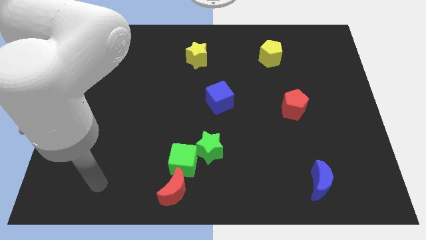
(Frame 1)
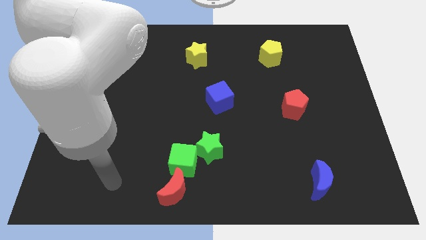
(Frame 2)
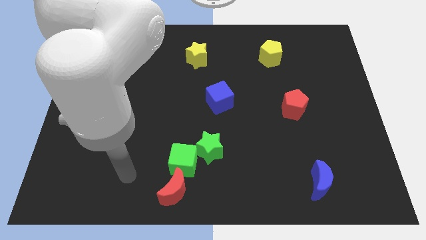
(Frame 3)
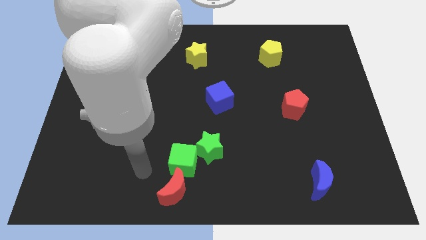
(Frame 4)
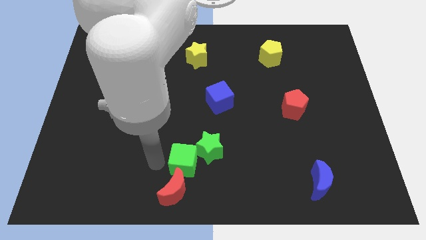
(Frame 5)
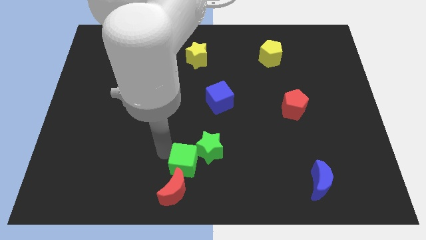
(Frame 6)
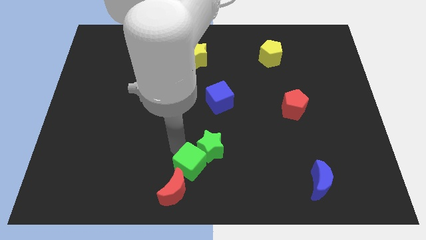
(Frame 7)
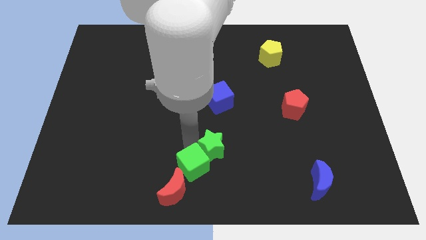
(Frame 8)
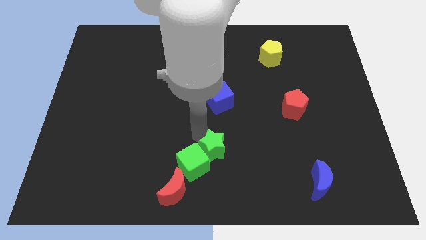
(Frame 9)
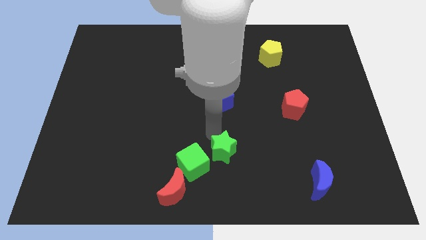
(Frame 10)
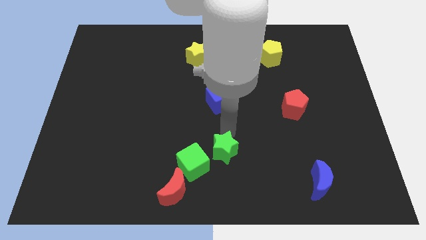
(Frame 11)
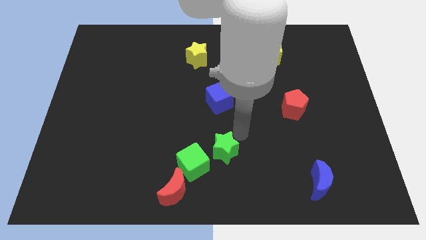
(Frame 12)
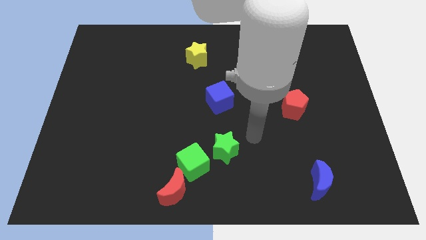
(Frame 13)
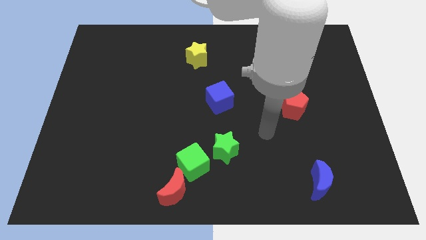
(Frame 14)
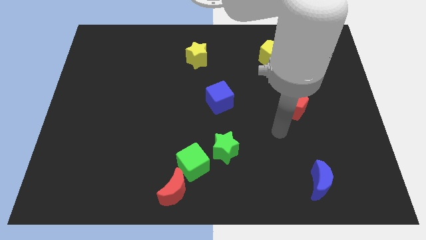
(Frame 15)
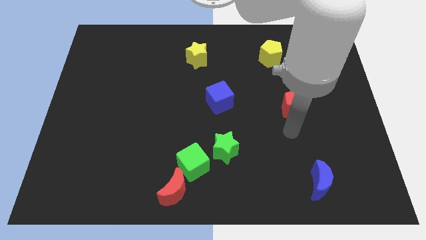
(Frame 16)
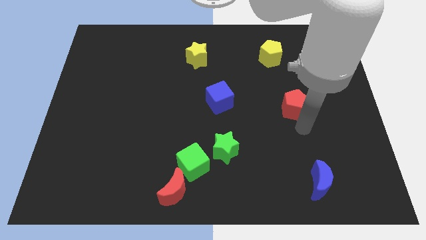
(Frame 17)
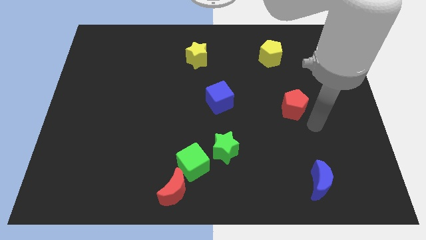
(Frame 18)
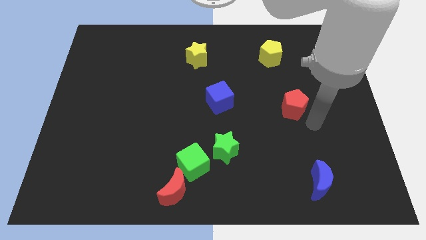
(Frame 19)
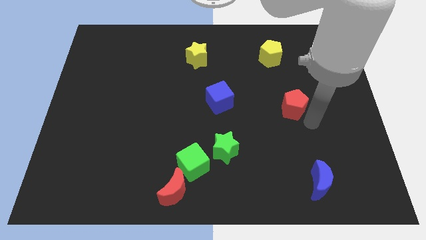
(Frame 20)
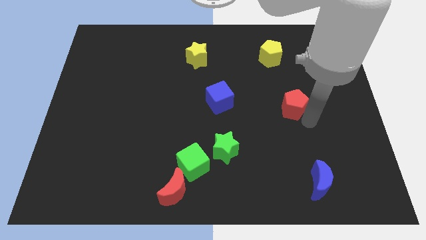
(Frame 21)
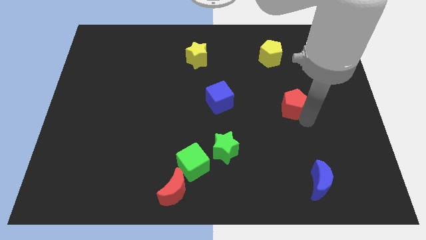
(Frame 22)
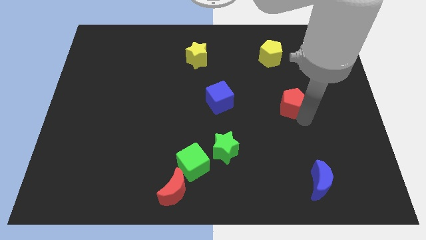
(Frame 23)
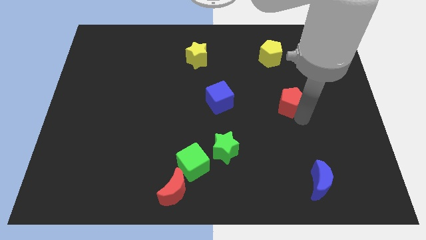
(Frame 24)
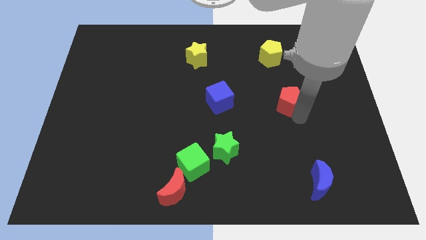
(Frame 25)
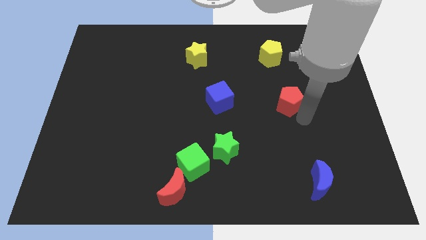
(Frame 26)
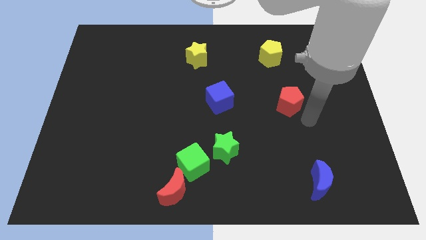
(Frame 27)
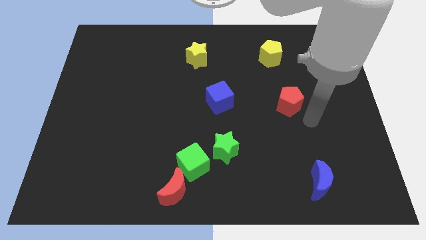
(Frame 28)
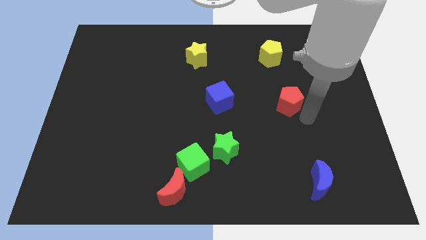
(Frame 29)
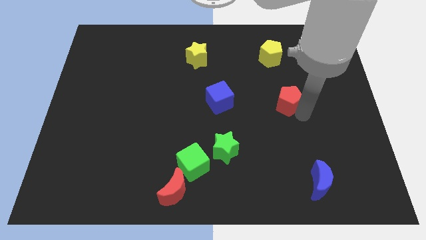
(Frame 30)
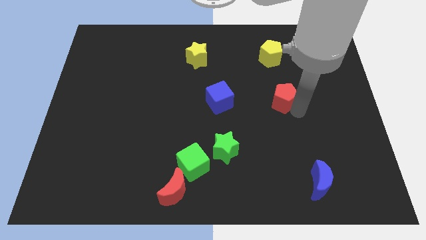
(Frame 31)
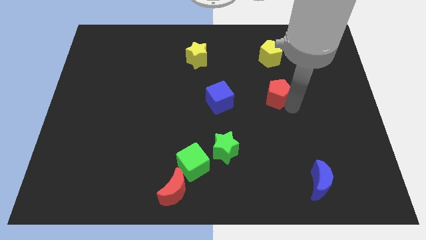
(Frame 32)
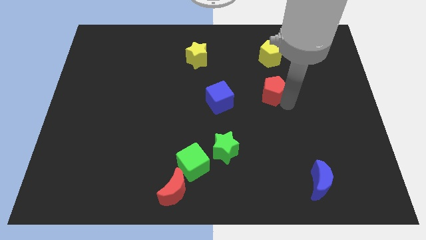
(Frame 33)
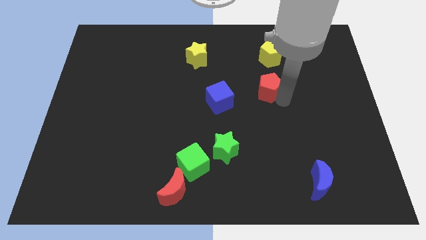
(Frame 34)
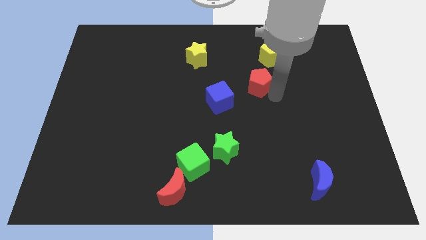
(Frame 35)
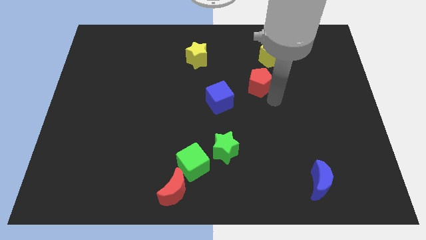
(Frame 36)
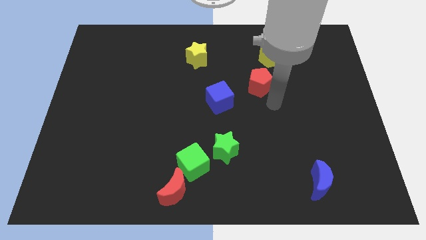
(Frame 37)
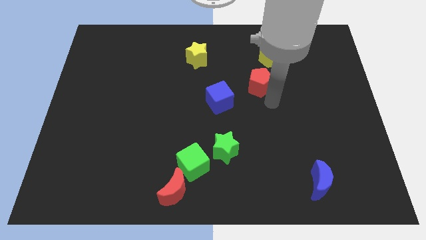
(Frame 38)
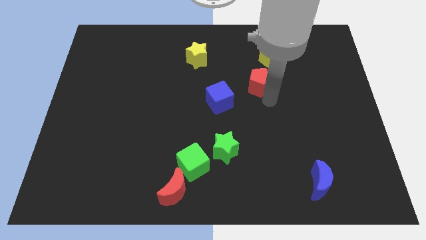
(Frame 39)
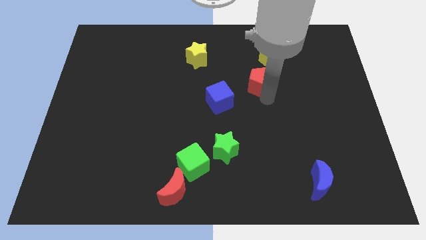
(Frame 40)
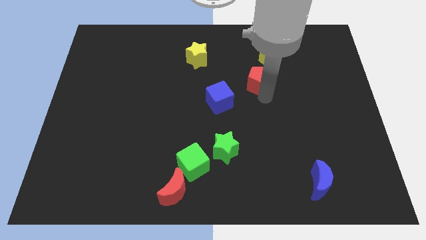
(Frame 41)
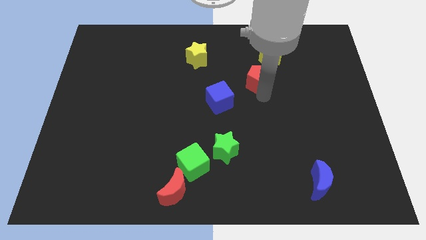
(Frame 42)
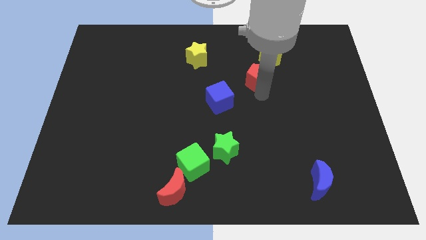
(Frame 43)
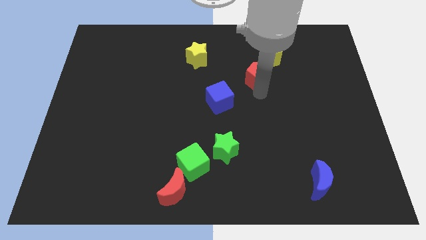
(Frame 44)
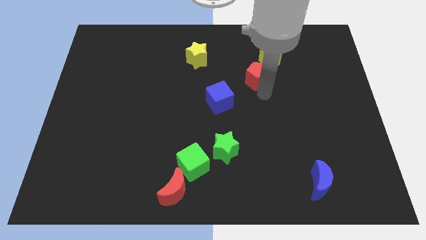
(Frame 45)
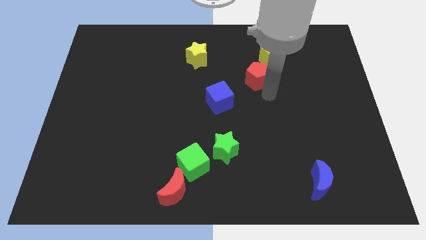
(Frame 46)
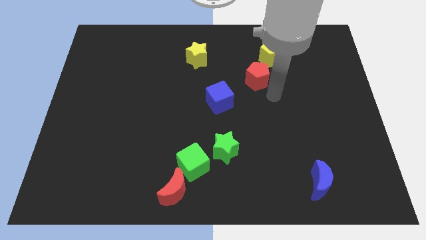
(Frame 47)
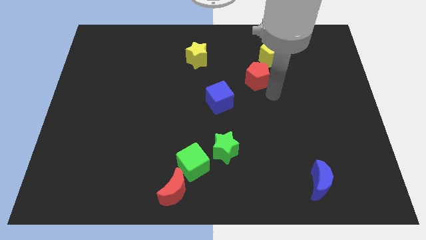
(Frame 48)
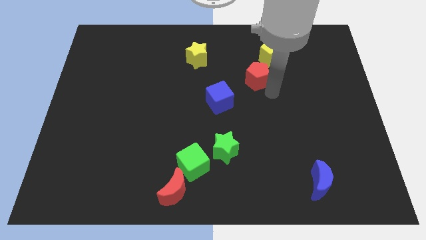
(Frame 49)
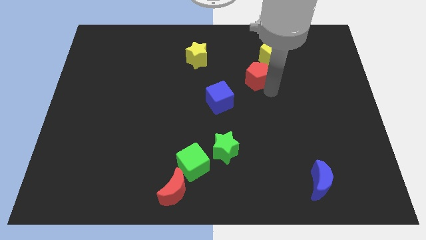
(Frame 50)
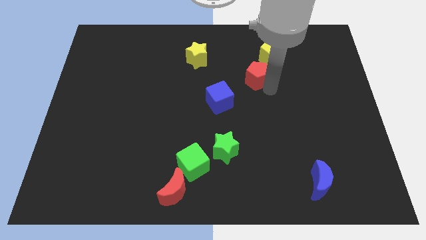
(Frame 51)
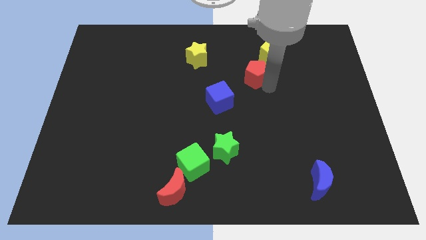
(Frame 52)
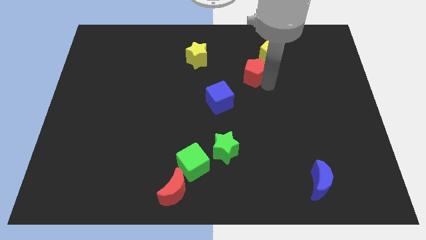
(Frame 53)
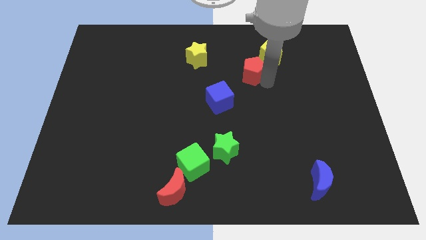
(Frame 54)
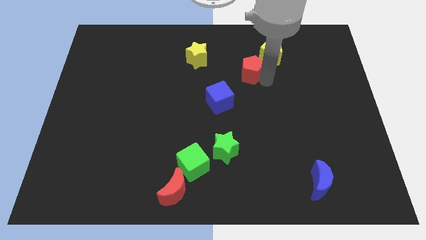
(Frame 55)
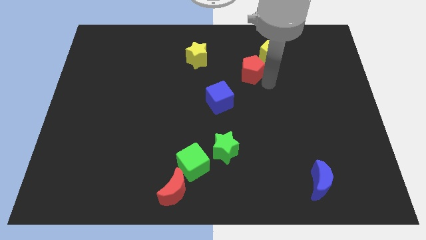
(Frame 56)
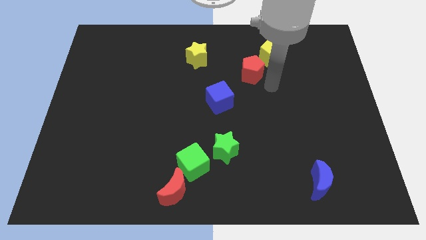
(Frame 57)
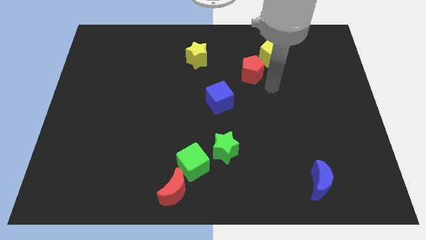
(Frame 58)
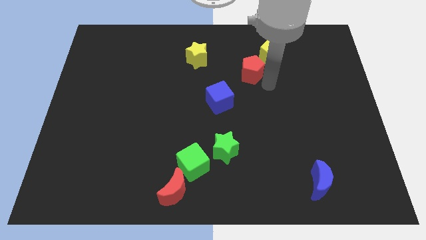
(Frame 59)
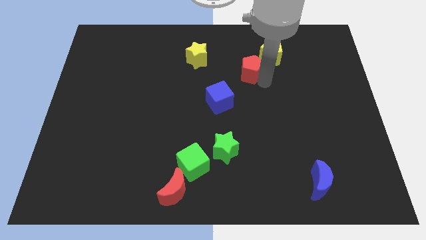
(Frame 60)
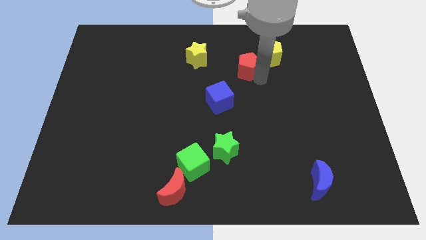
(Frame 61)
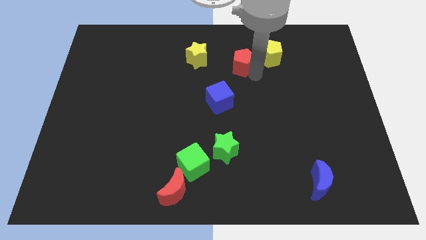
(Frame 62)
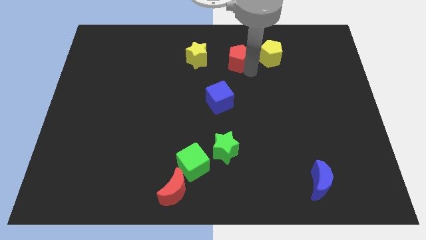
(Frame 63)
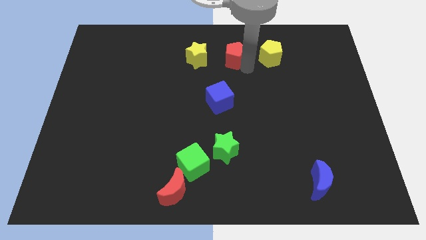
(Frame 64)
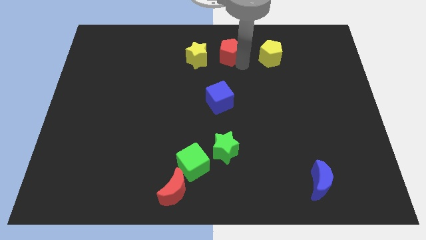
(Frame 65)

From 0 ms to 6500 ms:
push the red pentagon to the top
